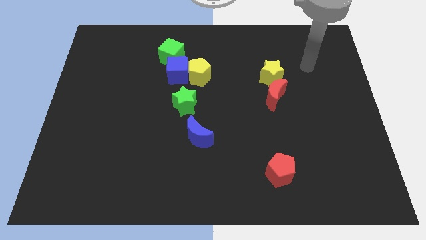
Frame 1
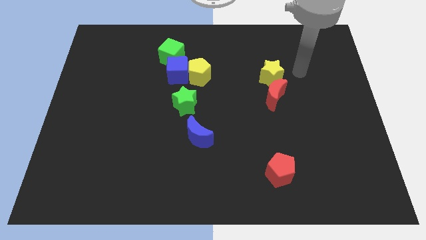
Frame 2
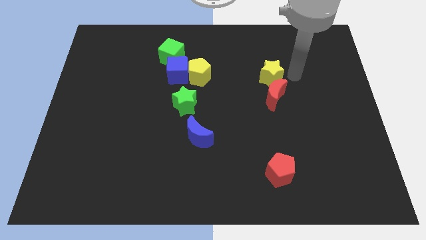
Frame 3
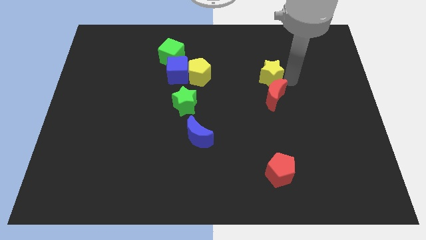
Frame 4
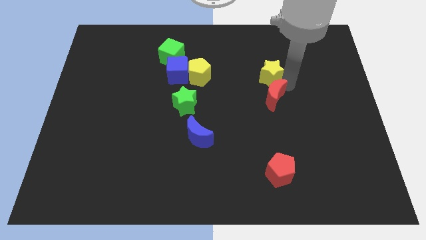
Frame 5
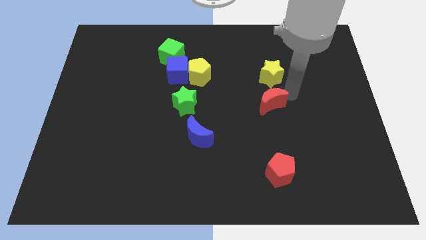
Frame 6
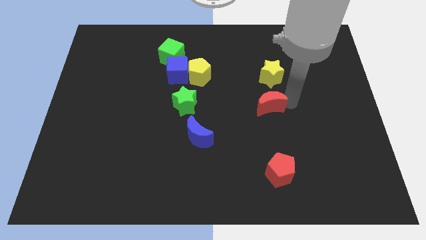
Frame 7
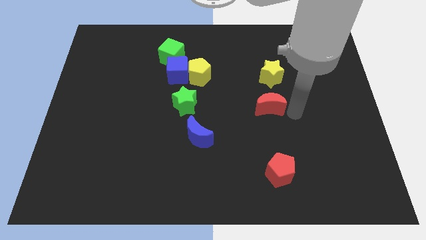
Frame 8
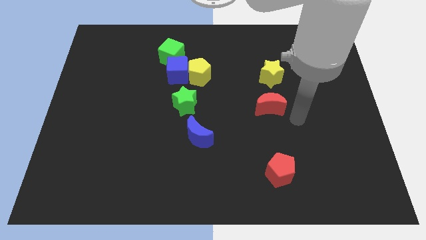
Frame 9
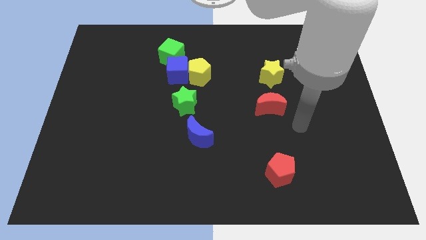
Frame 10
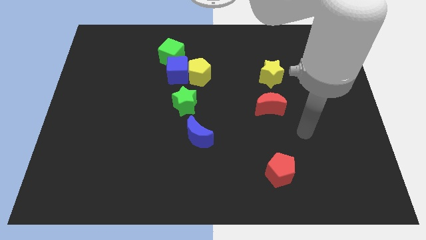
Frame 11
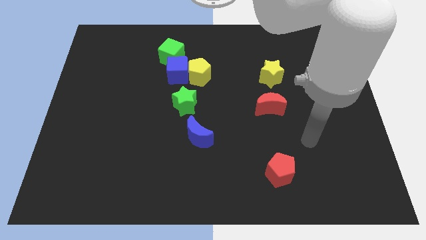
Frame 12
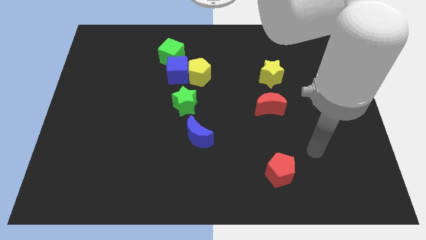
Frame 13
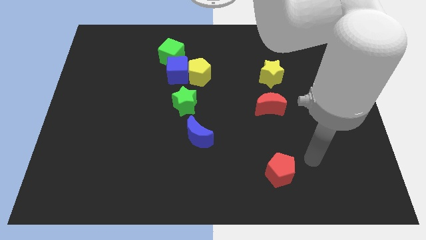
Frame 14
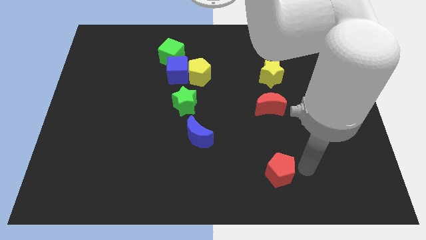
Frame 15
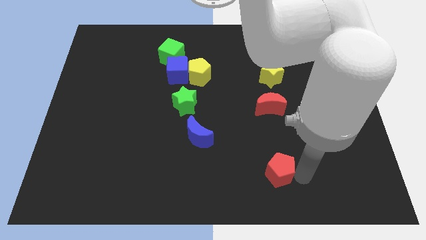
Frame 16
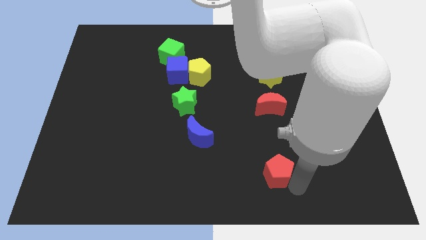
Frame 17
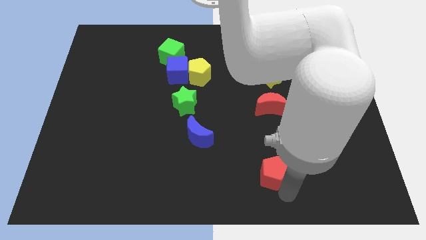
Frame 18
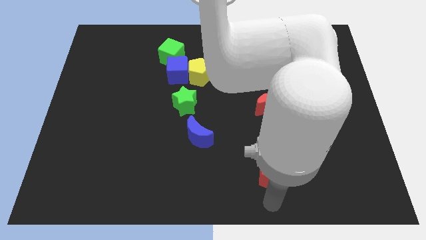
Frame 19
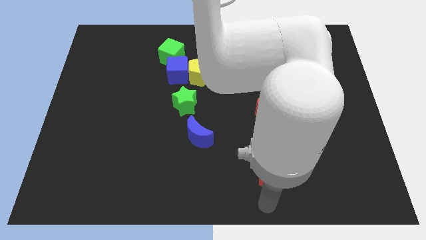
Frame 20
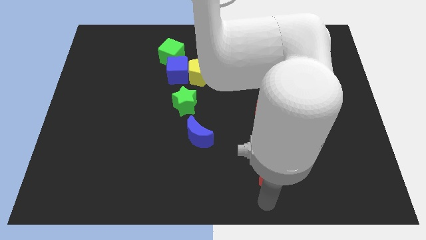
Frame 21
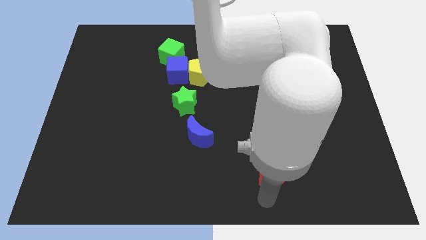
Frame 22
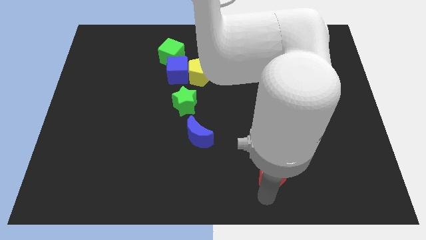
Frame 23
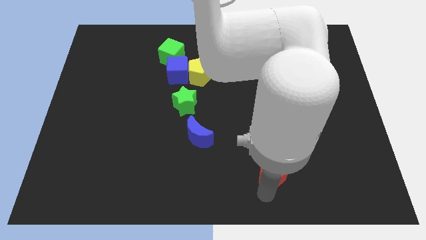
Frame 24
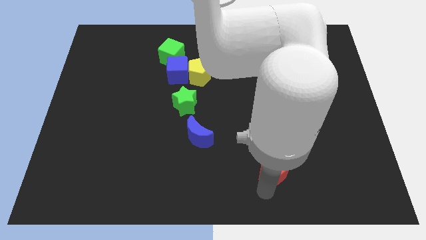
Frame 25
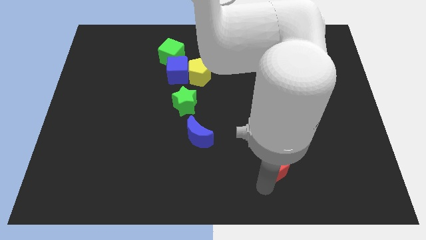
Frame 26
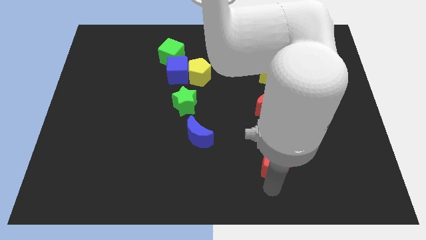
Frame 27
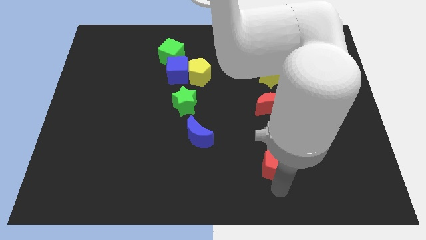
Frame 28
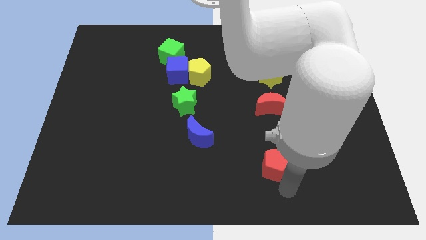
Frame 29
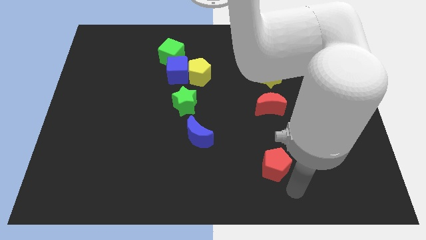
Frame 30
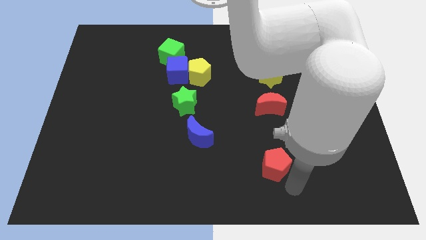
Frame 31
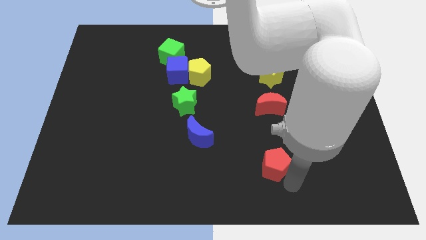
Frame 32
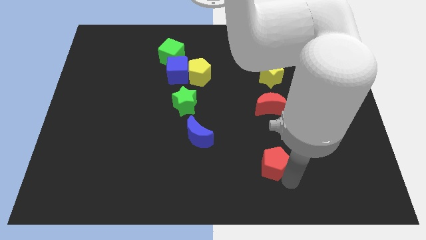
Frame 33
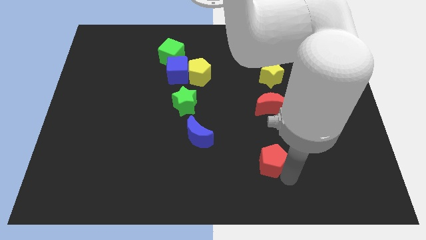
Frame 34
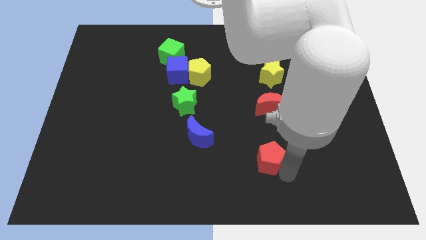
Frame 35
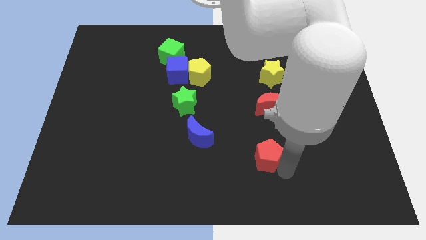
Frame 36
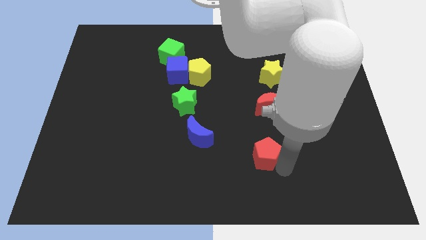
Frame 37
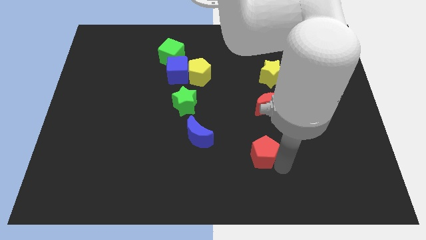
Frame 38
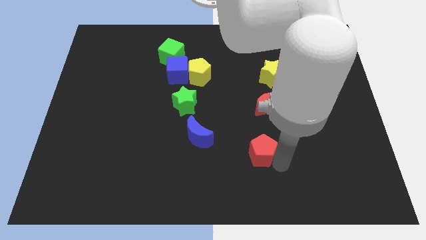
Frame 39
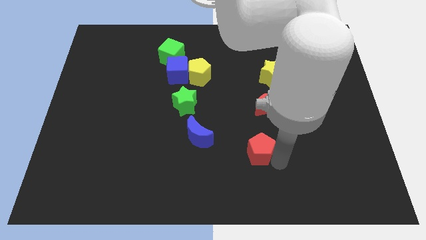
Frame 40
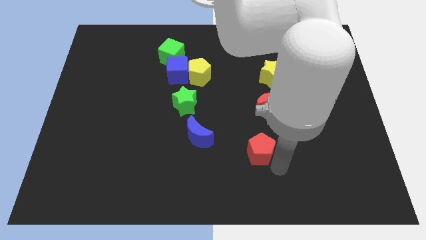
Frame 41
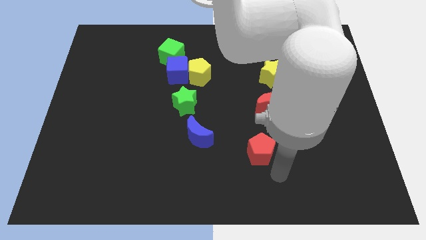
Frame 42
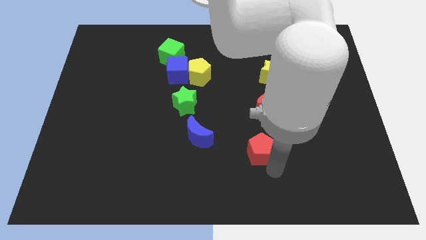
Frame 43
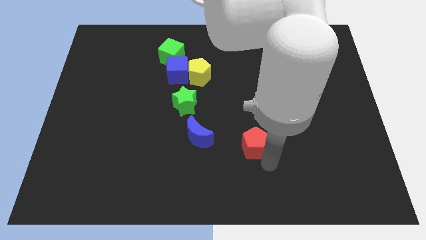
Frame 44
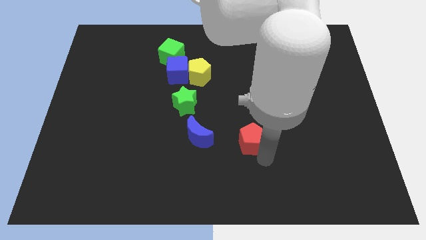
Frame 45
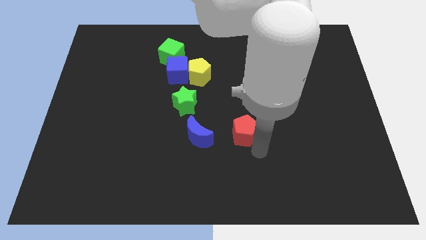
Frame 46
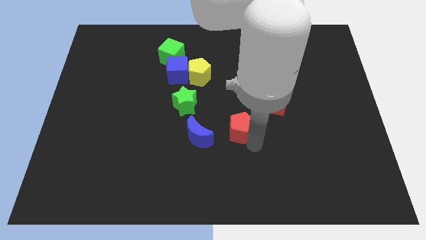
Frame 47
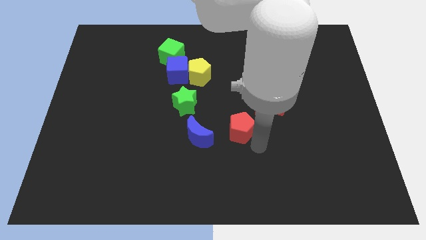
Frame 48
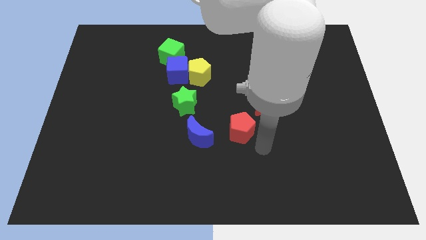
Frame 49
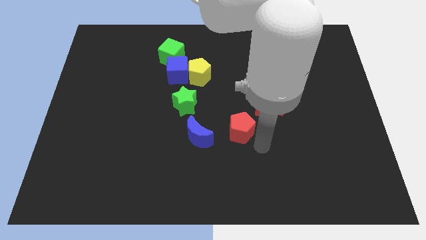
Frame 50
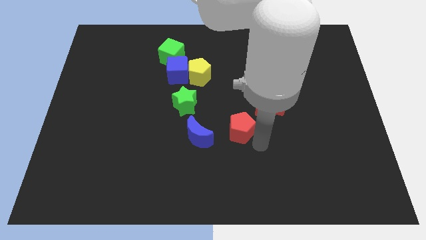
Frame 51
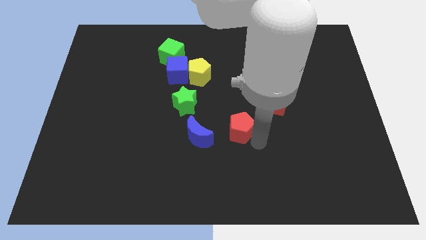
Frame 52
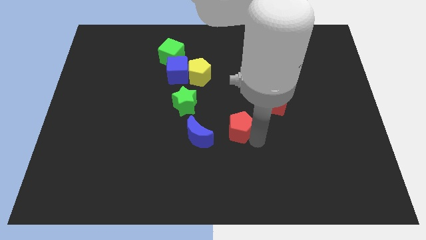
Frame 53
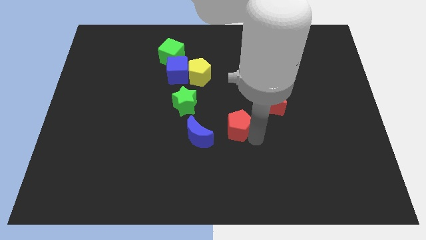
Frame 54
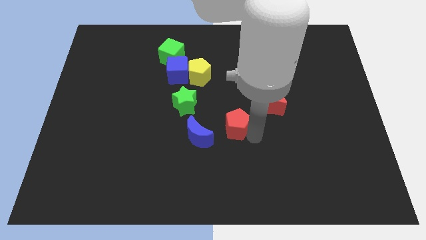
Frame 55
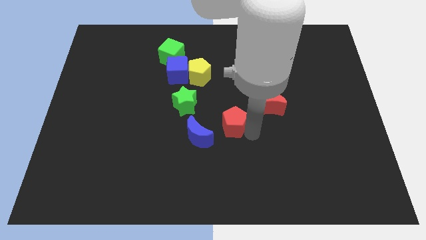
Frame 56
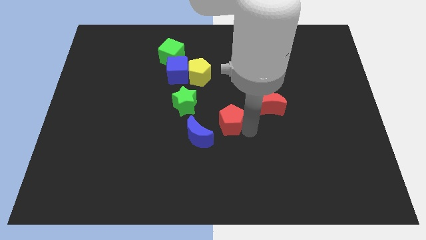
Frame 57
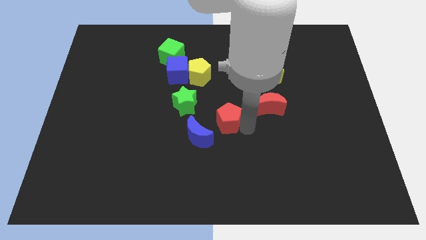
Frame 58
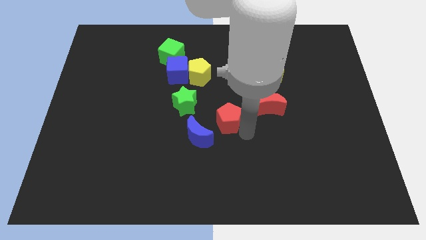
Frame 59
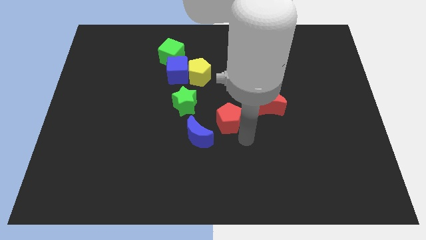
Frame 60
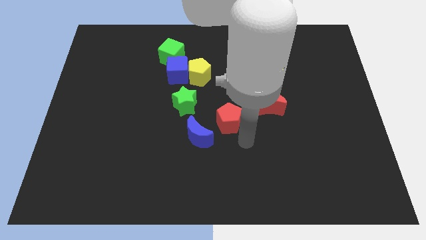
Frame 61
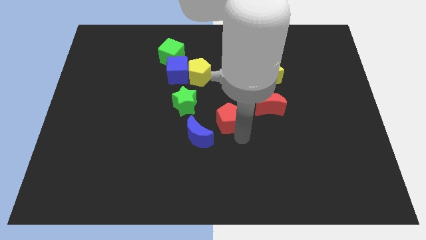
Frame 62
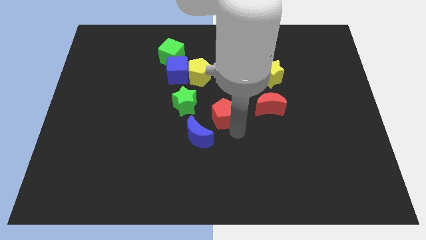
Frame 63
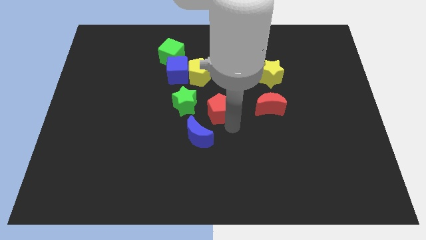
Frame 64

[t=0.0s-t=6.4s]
slide the red pentagon diagonally upwards and to the left

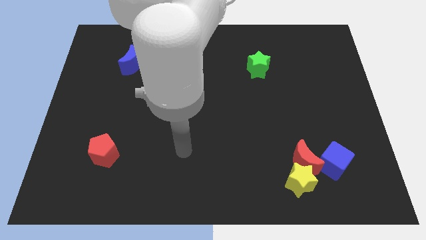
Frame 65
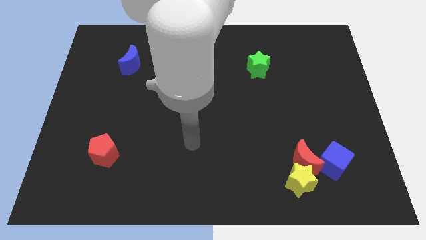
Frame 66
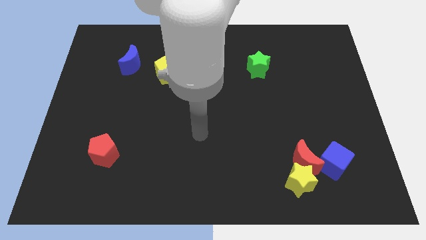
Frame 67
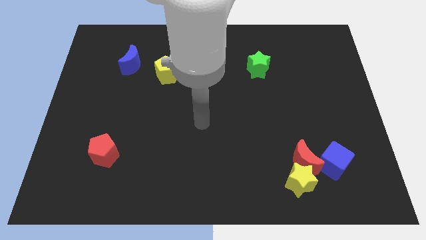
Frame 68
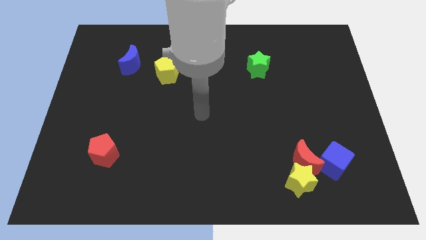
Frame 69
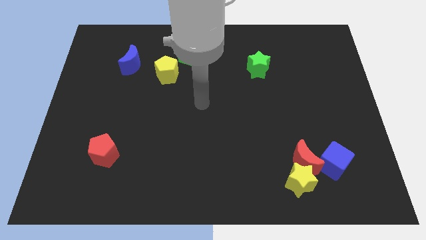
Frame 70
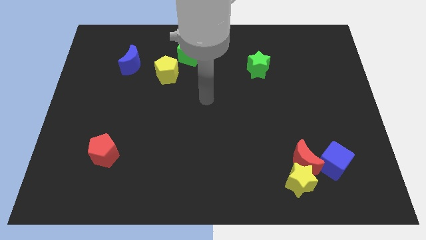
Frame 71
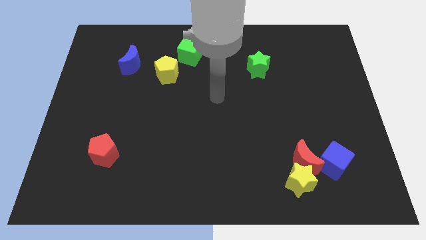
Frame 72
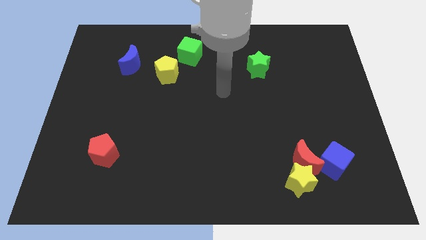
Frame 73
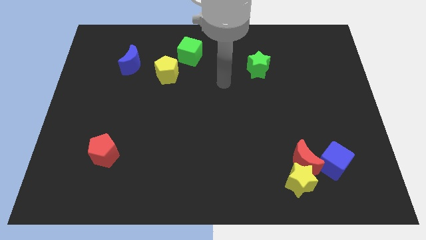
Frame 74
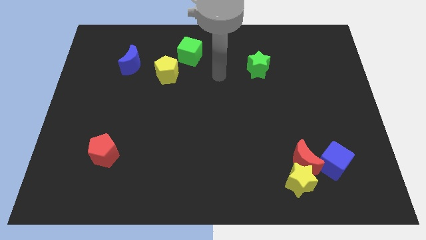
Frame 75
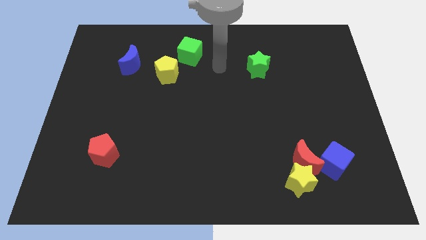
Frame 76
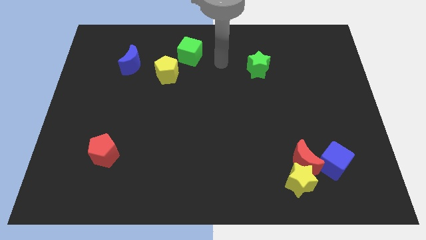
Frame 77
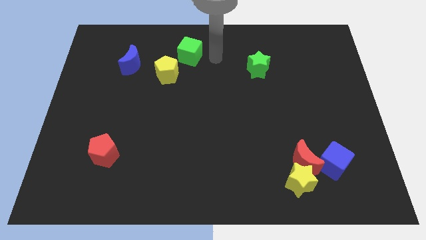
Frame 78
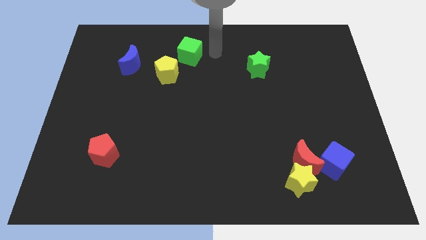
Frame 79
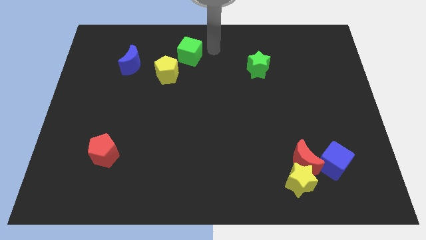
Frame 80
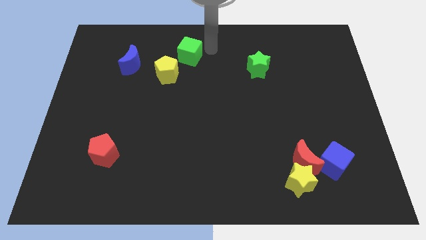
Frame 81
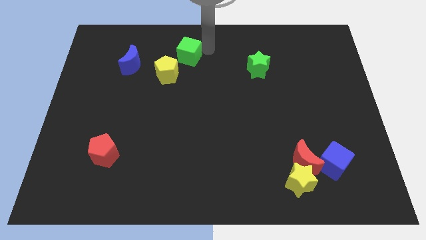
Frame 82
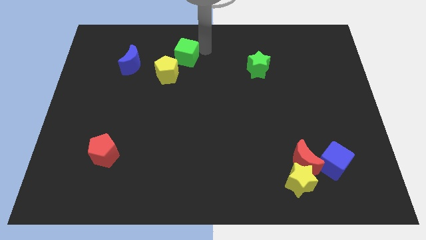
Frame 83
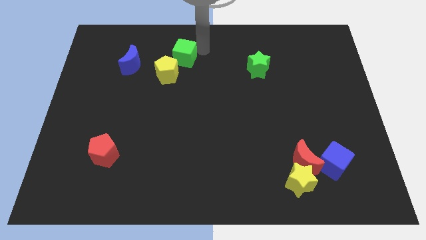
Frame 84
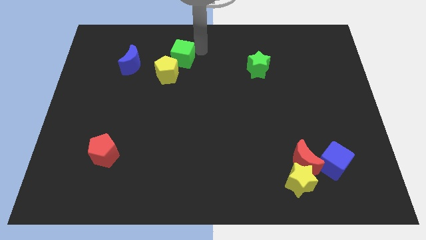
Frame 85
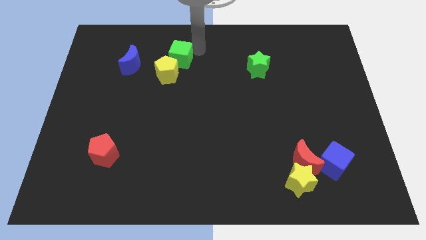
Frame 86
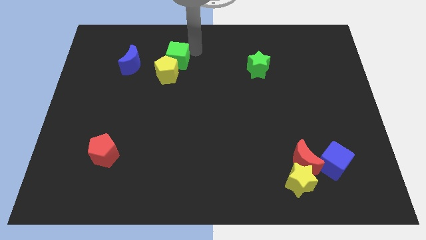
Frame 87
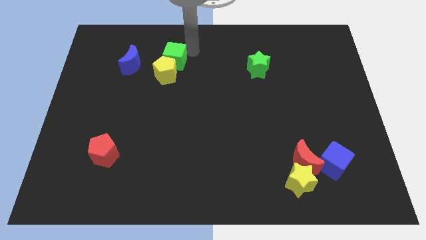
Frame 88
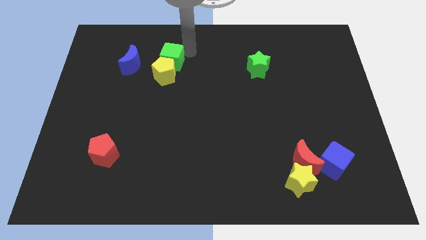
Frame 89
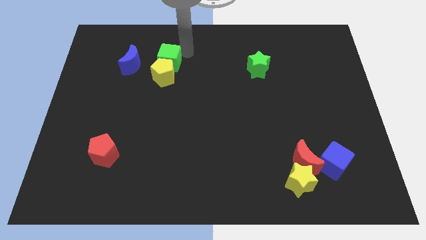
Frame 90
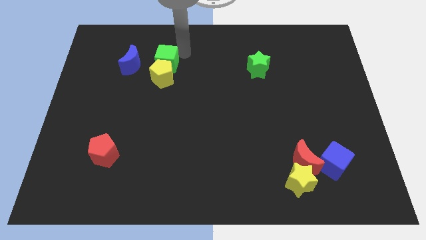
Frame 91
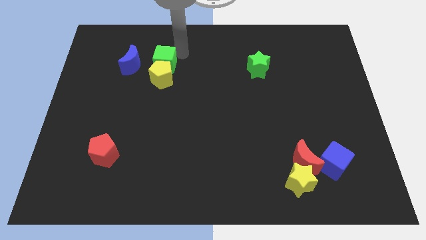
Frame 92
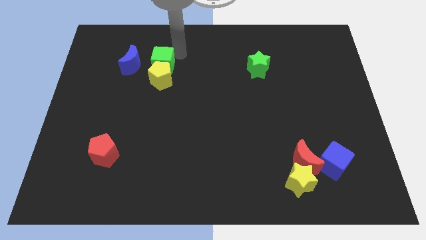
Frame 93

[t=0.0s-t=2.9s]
push the green cube down and to the left slightly
